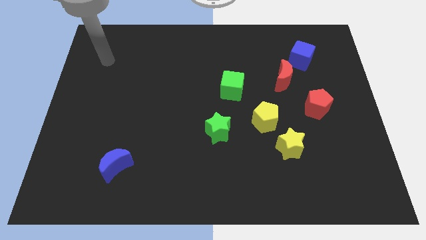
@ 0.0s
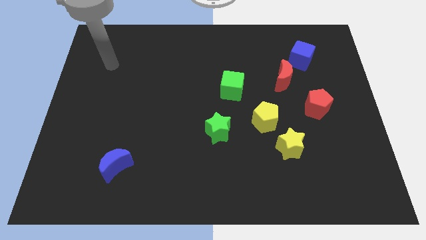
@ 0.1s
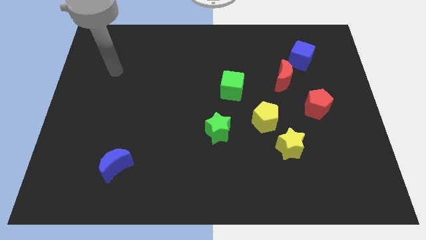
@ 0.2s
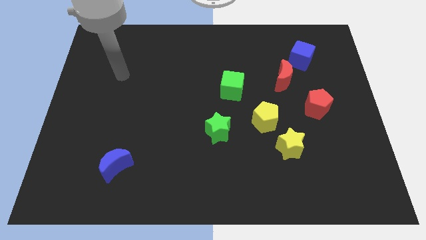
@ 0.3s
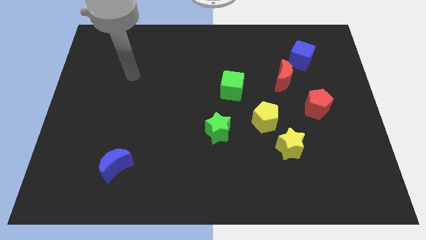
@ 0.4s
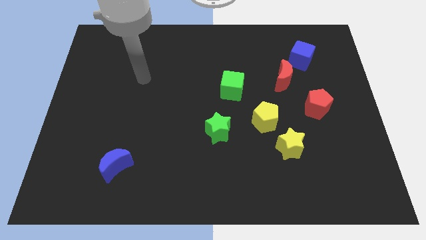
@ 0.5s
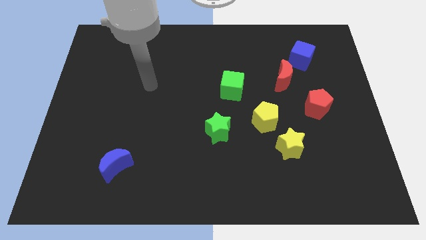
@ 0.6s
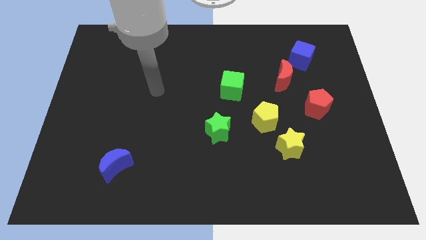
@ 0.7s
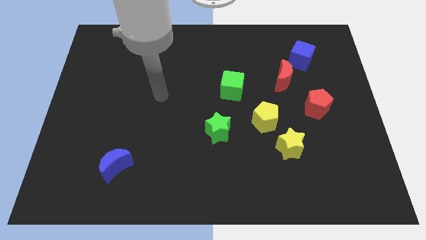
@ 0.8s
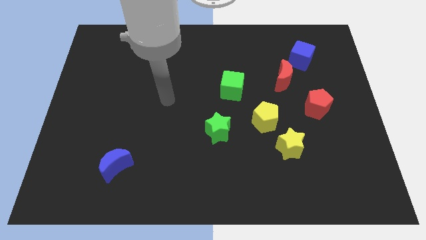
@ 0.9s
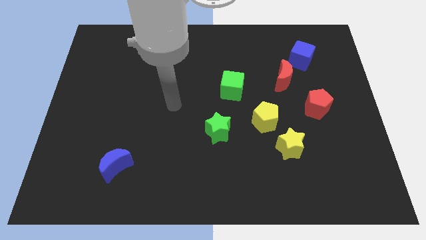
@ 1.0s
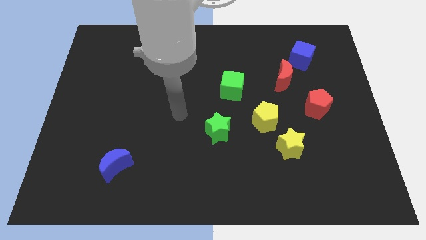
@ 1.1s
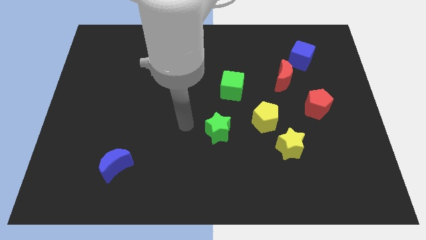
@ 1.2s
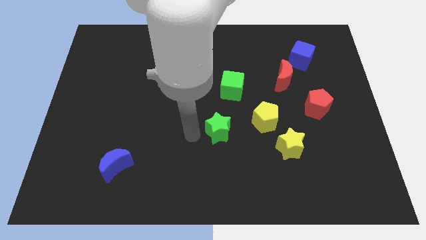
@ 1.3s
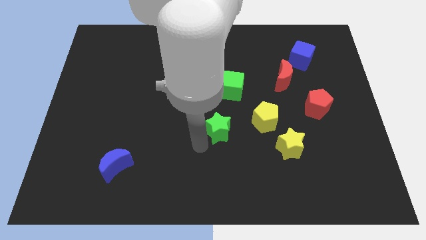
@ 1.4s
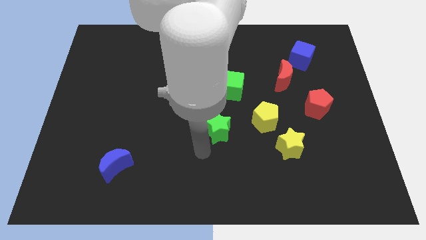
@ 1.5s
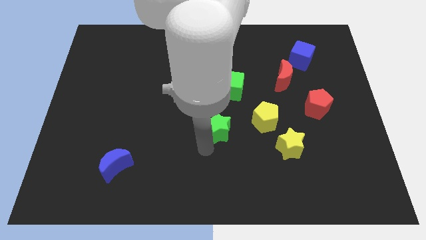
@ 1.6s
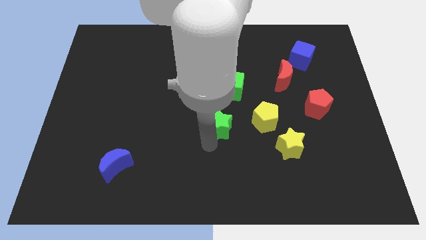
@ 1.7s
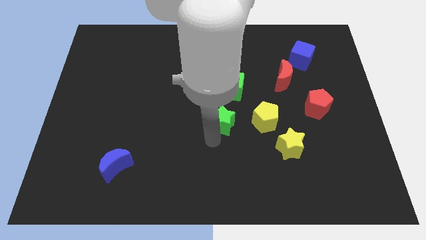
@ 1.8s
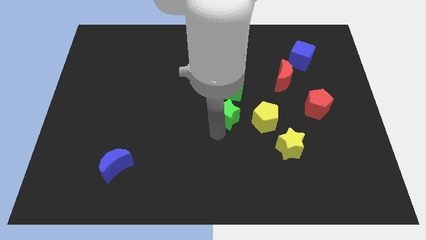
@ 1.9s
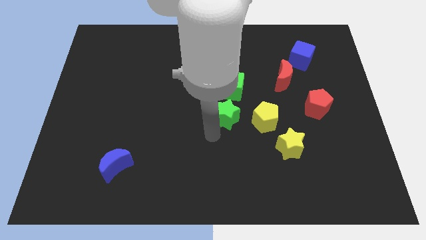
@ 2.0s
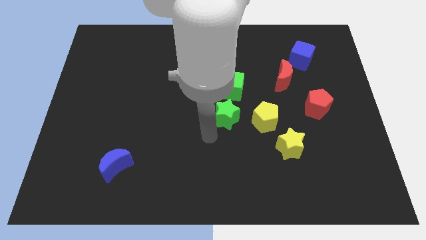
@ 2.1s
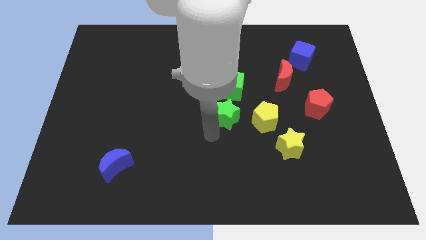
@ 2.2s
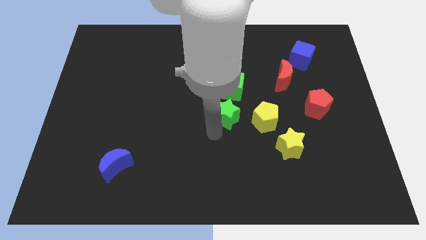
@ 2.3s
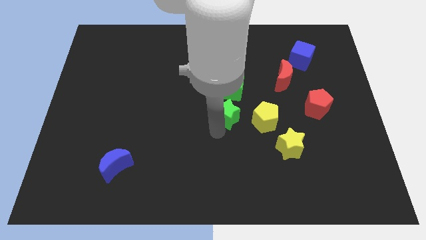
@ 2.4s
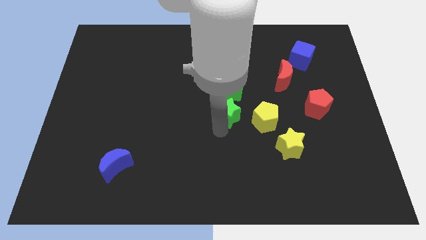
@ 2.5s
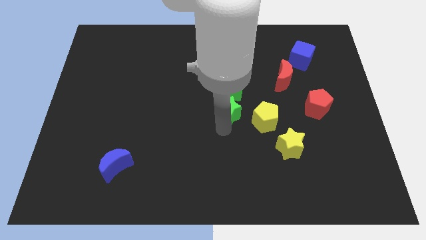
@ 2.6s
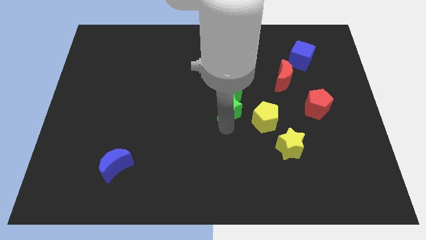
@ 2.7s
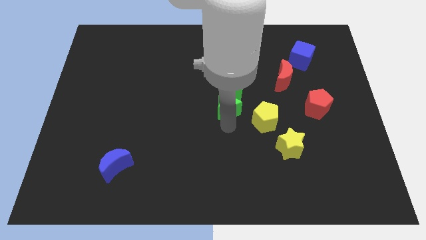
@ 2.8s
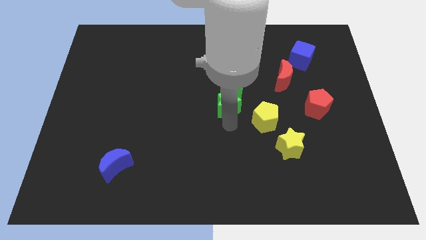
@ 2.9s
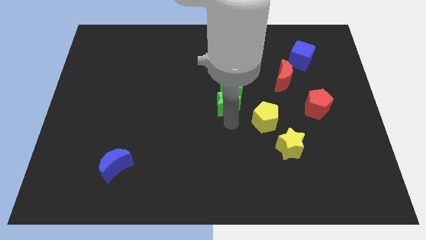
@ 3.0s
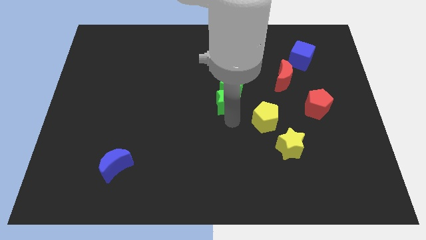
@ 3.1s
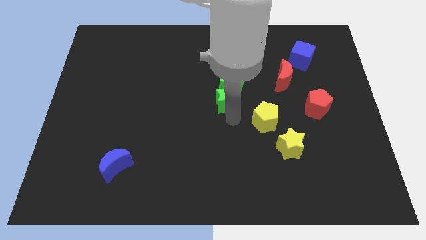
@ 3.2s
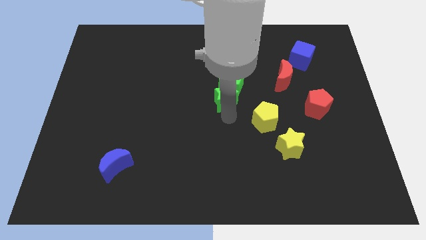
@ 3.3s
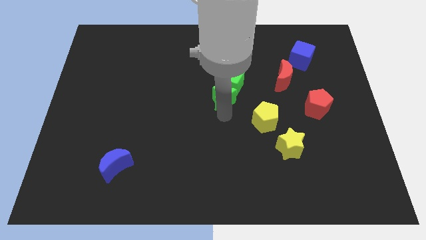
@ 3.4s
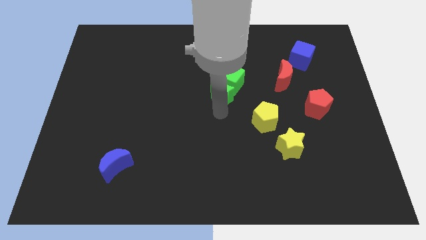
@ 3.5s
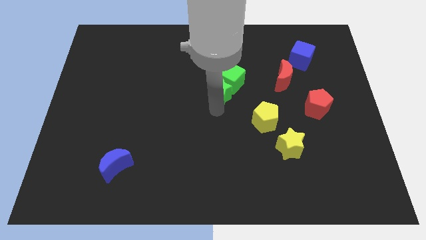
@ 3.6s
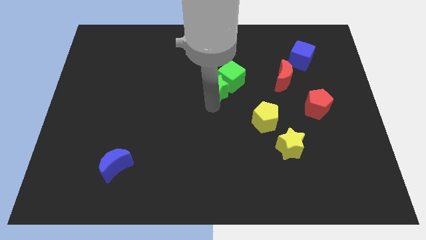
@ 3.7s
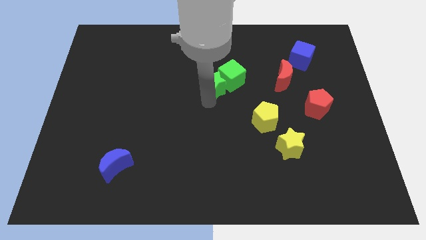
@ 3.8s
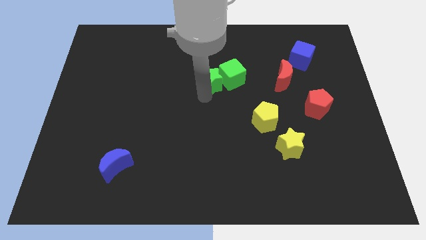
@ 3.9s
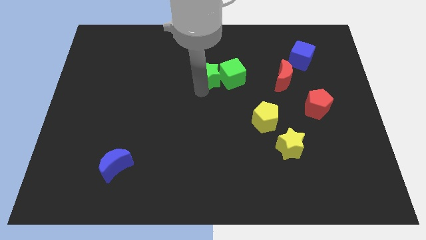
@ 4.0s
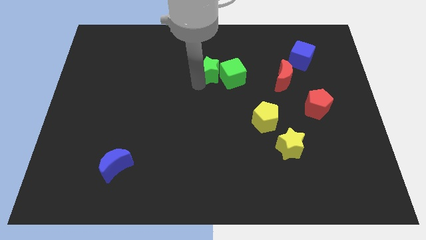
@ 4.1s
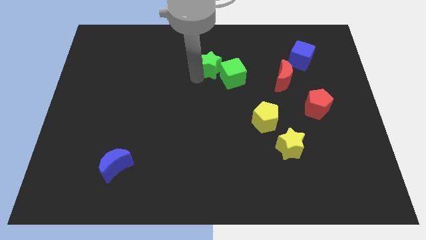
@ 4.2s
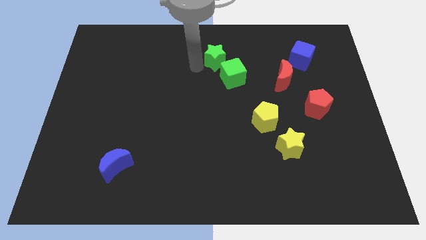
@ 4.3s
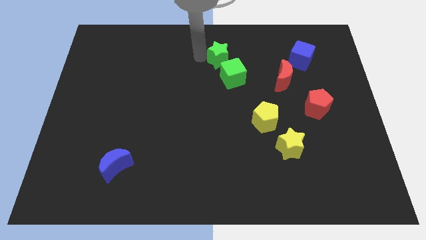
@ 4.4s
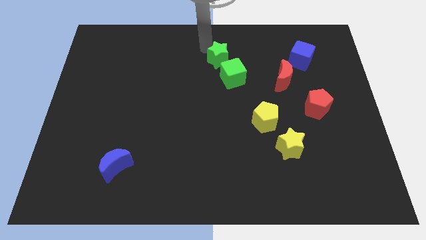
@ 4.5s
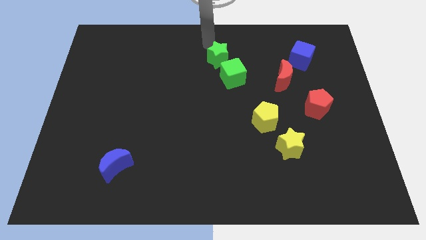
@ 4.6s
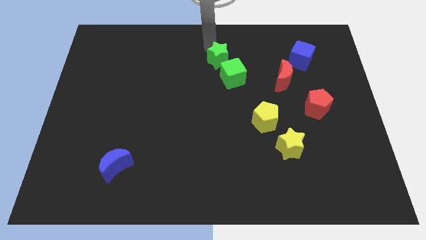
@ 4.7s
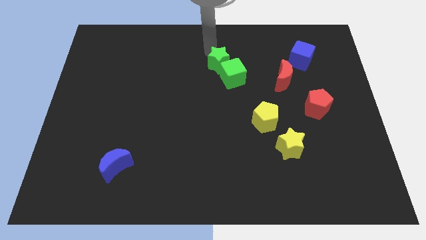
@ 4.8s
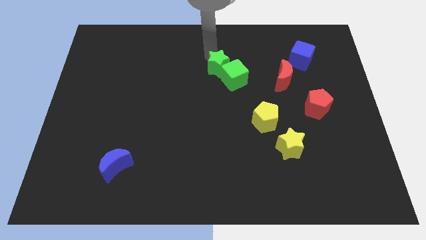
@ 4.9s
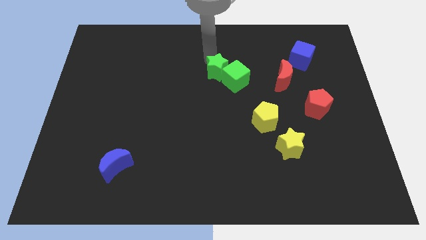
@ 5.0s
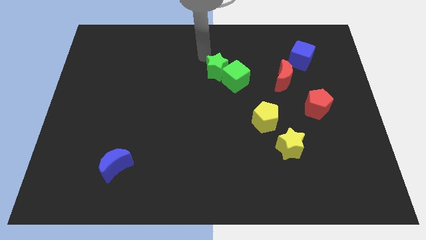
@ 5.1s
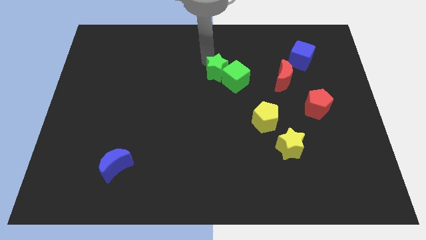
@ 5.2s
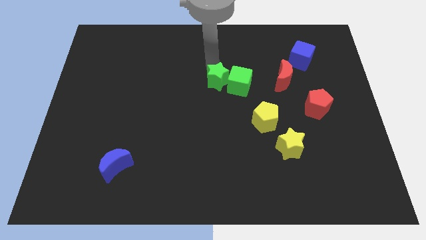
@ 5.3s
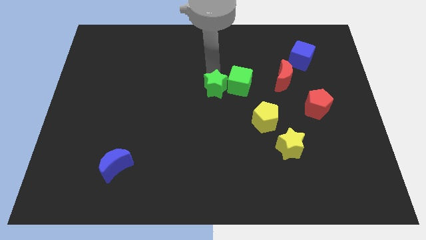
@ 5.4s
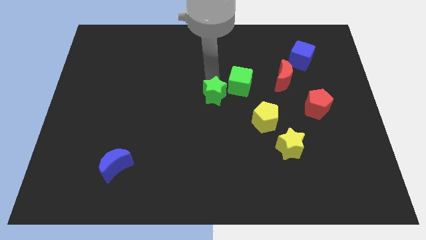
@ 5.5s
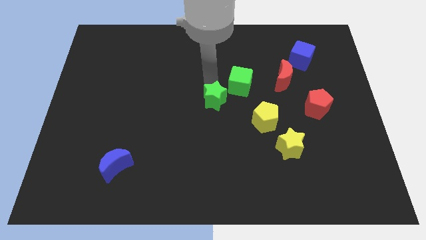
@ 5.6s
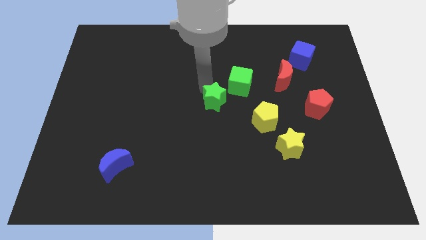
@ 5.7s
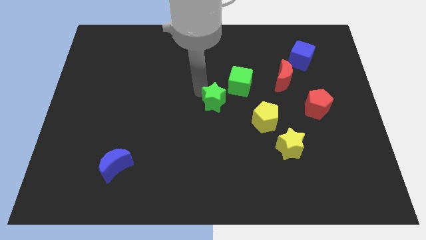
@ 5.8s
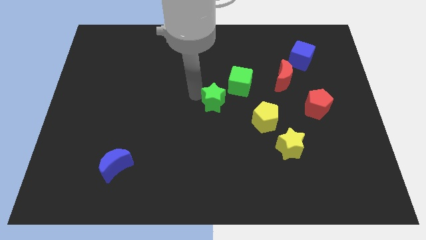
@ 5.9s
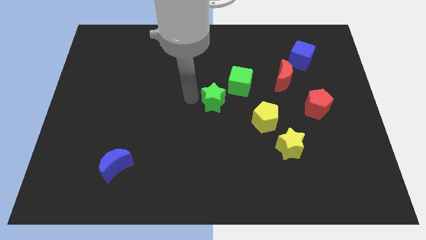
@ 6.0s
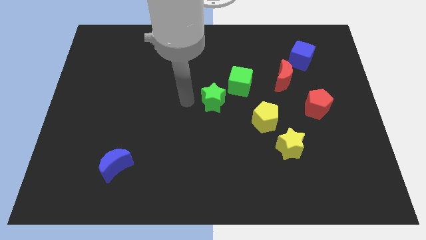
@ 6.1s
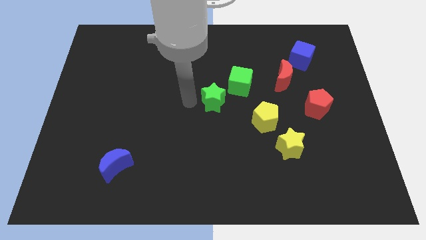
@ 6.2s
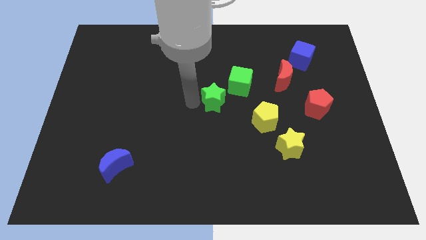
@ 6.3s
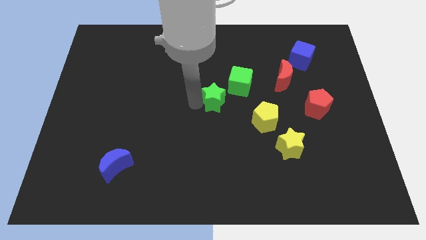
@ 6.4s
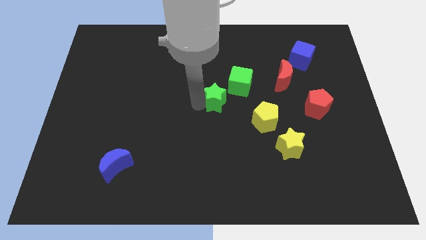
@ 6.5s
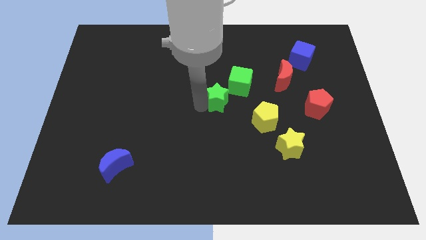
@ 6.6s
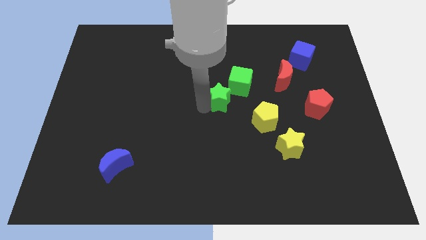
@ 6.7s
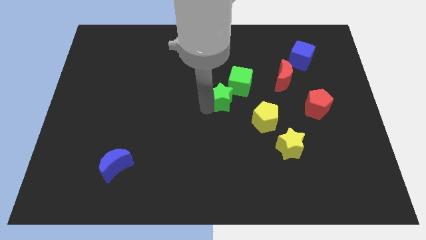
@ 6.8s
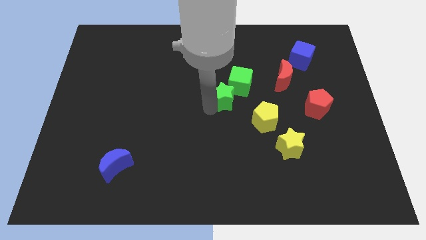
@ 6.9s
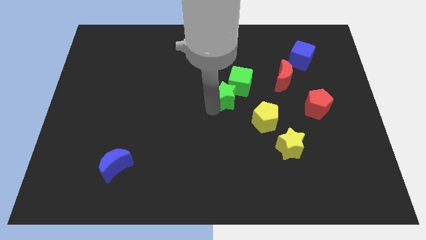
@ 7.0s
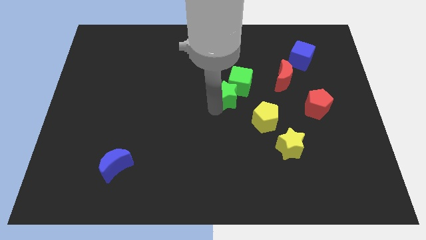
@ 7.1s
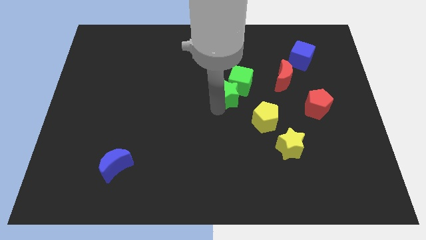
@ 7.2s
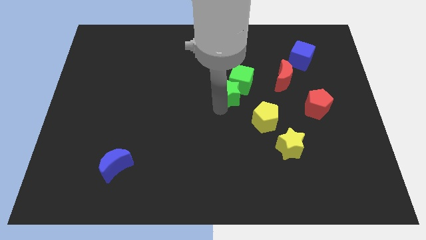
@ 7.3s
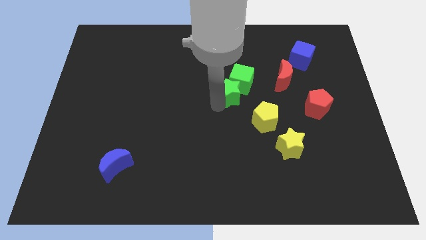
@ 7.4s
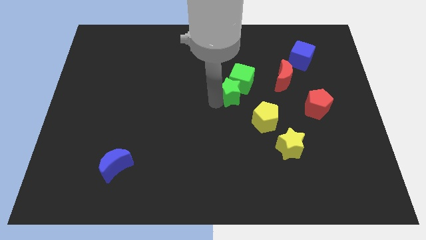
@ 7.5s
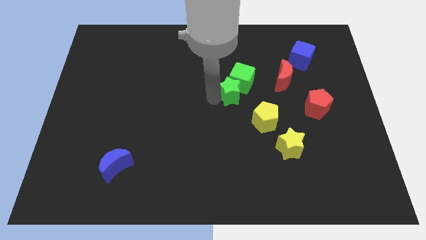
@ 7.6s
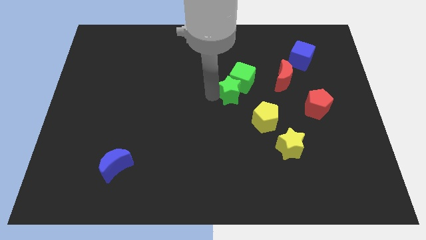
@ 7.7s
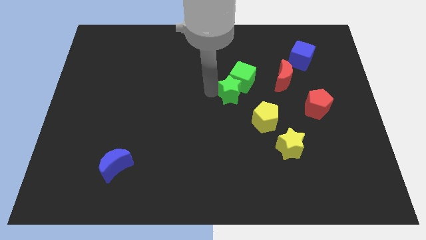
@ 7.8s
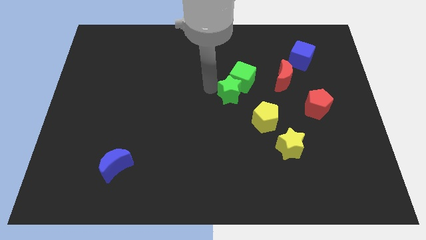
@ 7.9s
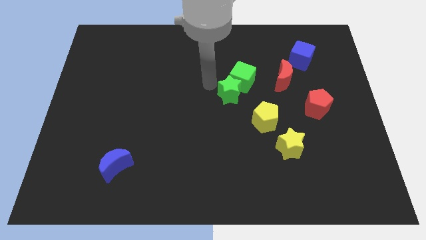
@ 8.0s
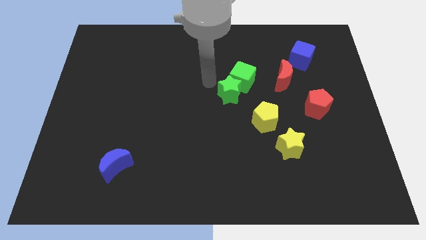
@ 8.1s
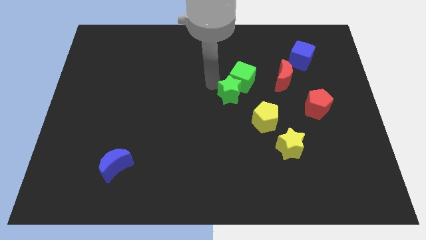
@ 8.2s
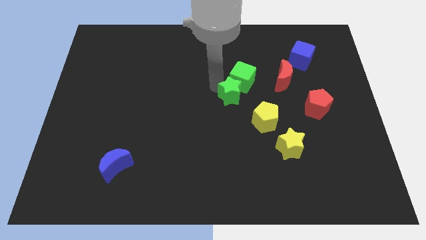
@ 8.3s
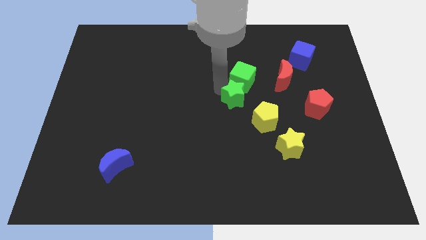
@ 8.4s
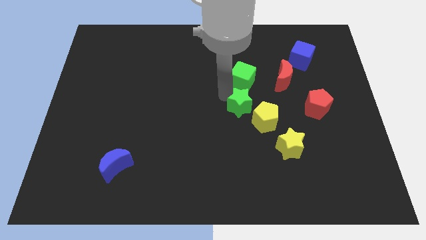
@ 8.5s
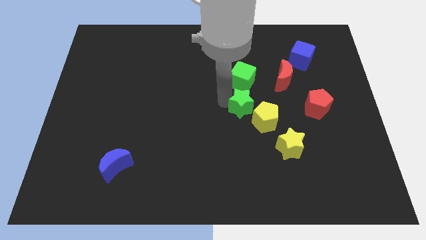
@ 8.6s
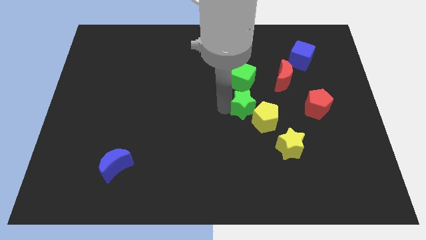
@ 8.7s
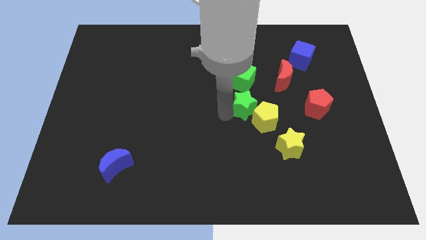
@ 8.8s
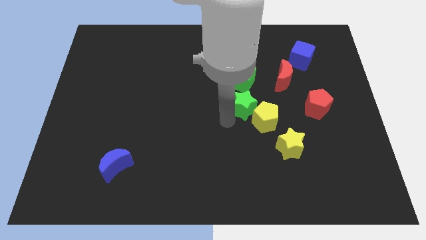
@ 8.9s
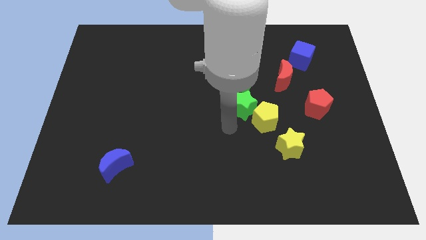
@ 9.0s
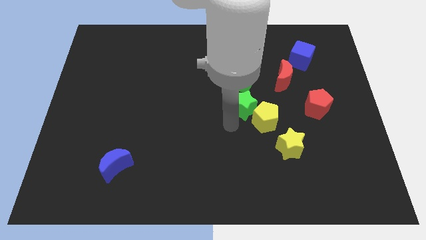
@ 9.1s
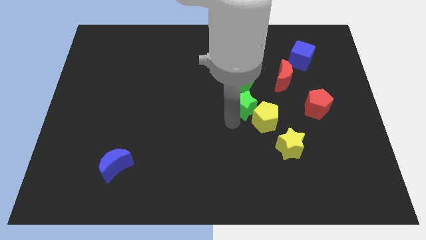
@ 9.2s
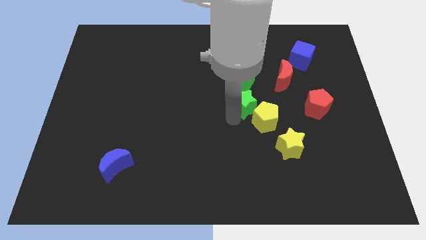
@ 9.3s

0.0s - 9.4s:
move the green star to the top of the yellow pentagon
